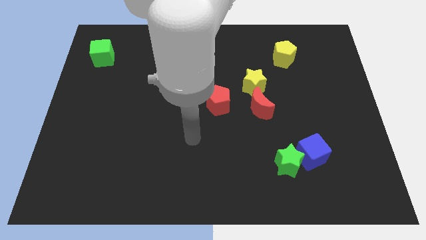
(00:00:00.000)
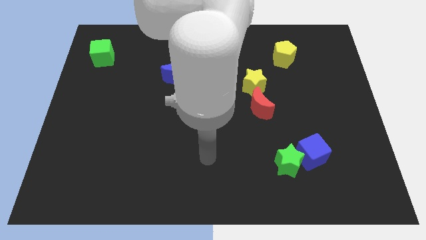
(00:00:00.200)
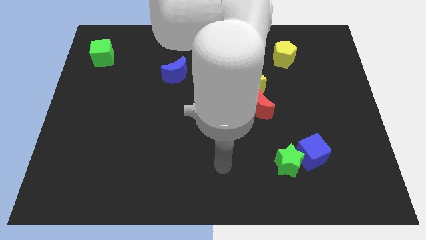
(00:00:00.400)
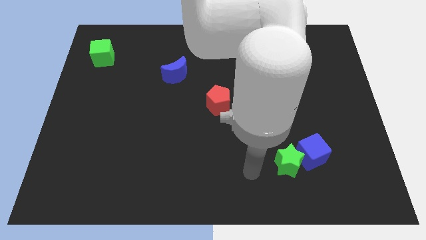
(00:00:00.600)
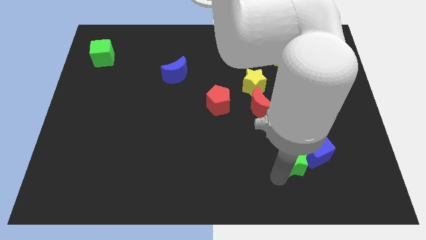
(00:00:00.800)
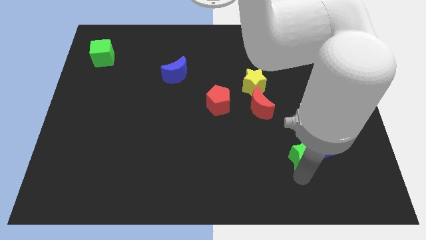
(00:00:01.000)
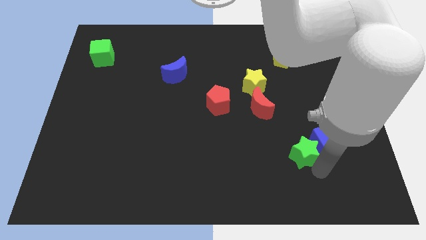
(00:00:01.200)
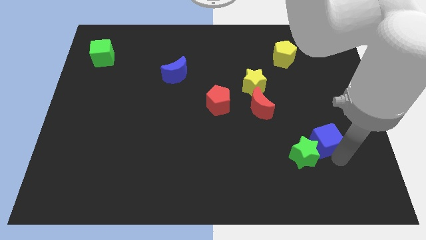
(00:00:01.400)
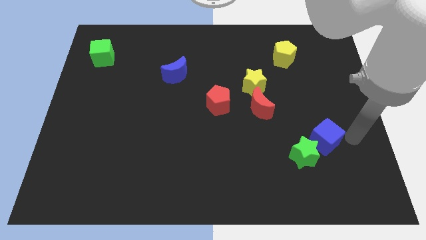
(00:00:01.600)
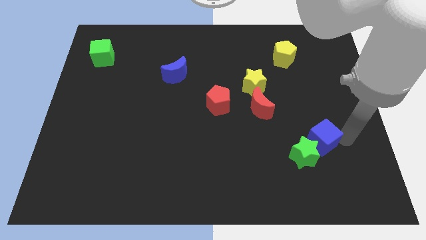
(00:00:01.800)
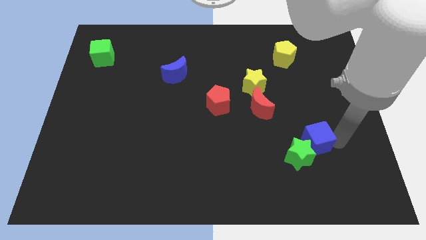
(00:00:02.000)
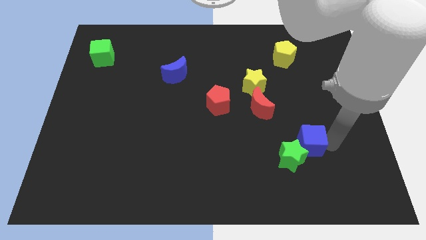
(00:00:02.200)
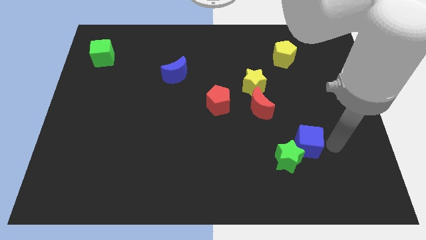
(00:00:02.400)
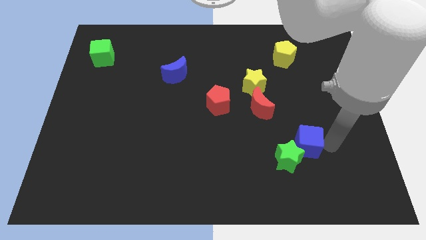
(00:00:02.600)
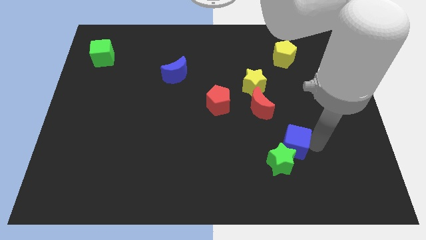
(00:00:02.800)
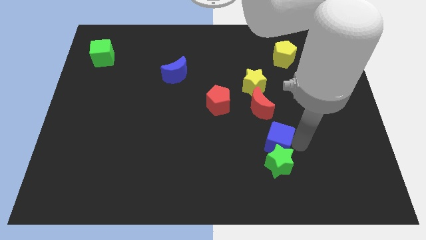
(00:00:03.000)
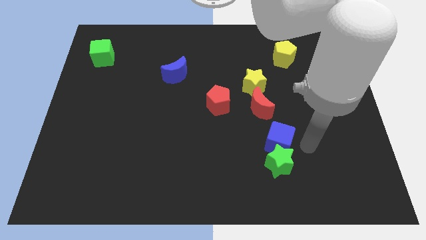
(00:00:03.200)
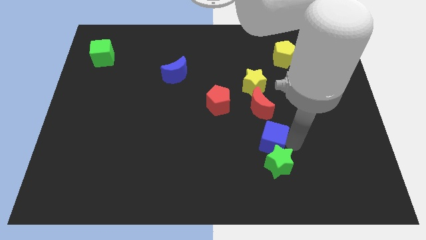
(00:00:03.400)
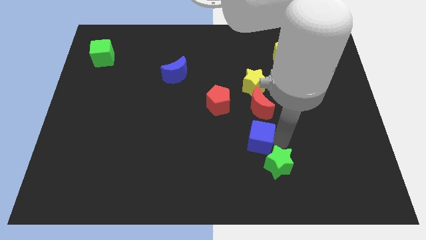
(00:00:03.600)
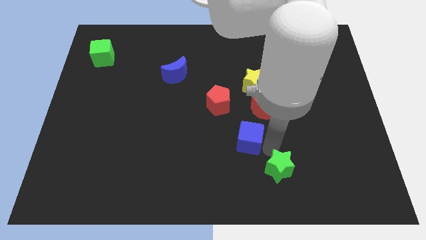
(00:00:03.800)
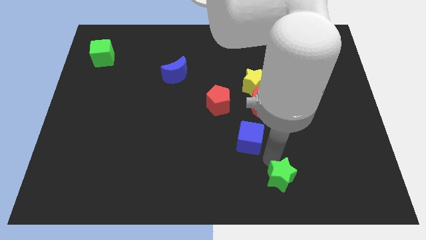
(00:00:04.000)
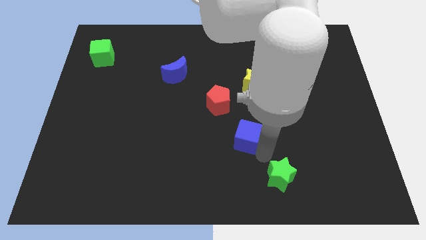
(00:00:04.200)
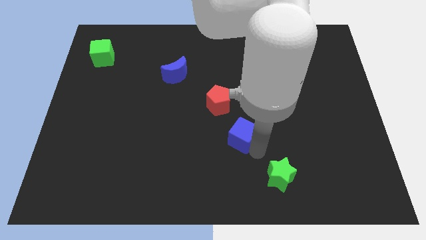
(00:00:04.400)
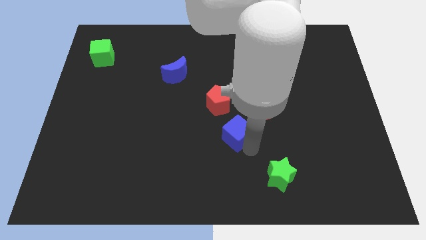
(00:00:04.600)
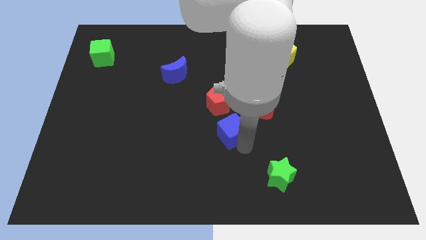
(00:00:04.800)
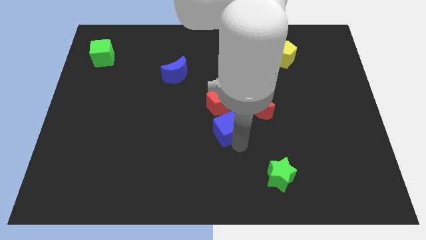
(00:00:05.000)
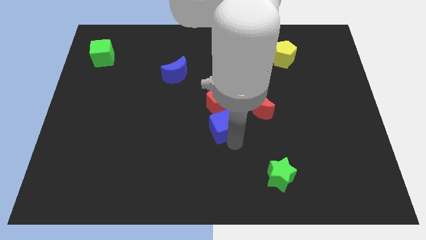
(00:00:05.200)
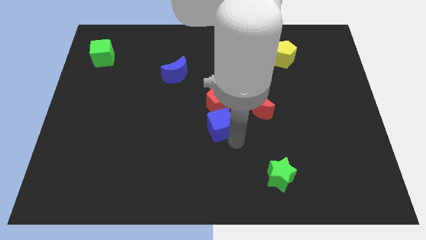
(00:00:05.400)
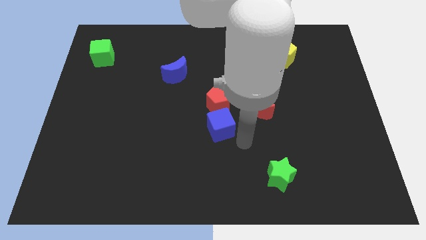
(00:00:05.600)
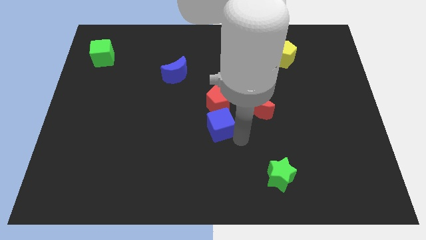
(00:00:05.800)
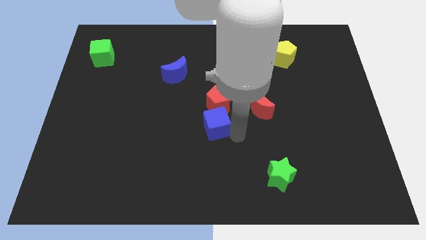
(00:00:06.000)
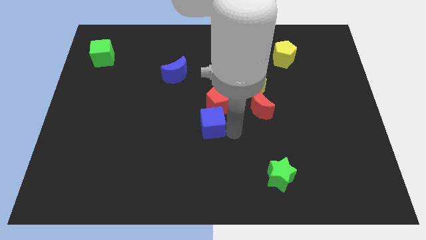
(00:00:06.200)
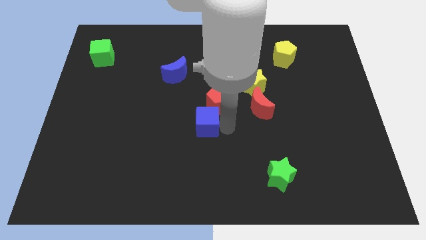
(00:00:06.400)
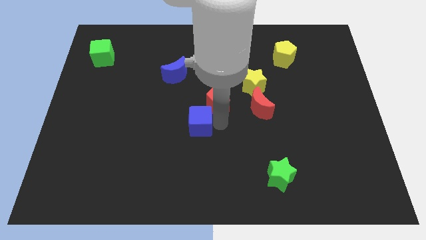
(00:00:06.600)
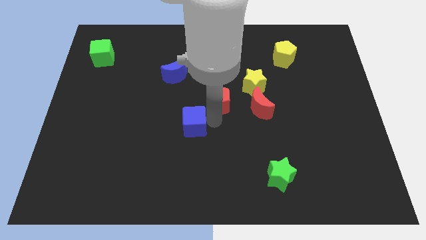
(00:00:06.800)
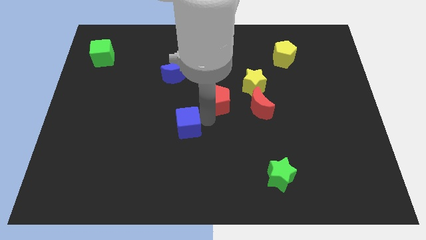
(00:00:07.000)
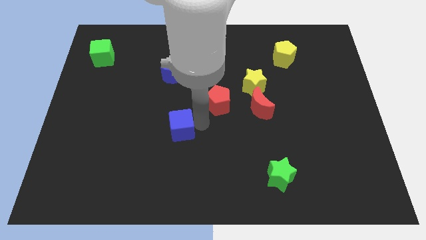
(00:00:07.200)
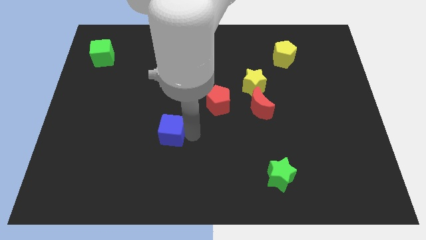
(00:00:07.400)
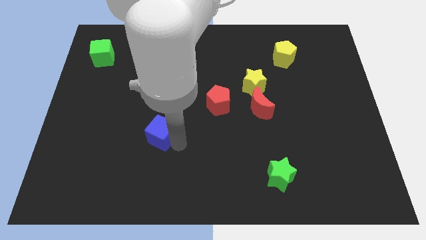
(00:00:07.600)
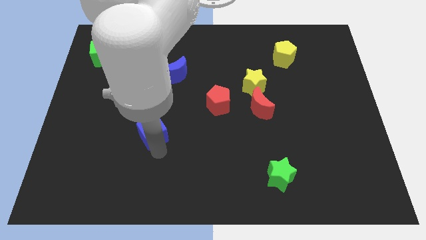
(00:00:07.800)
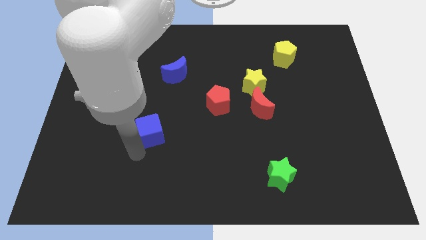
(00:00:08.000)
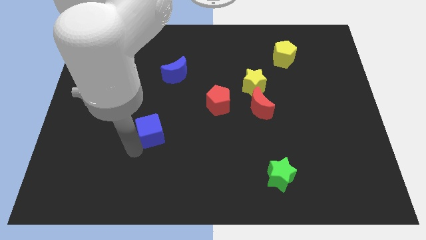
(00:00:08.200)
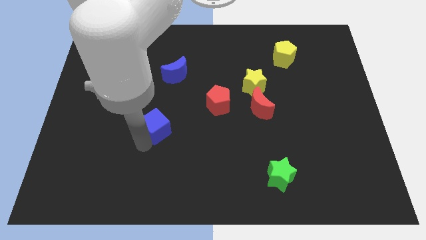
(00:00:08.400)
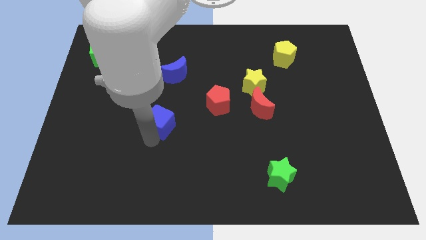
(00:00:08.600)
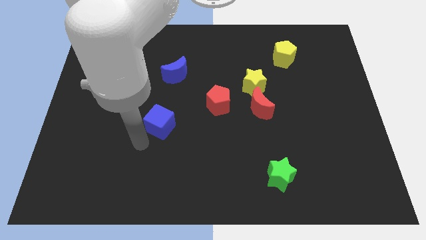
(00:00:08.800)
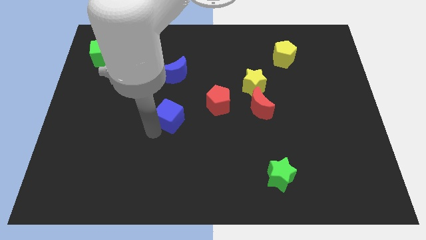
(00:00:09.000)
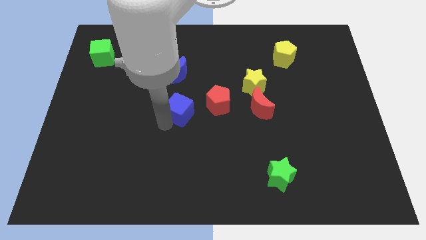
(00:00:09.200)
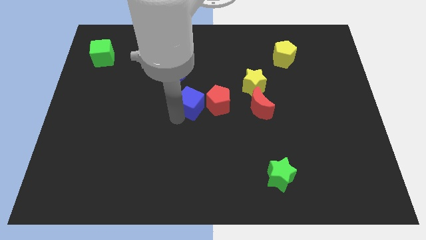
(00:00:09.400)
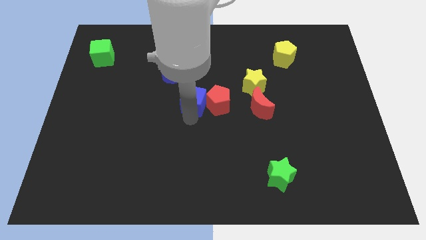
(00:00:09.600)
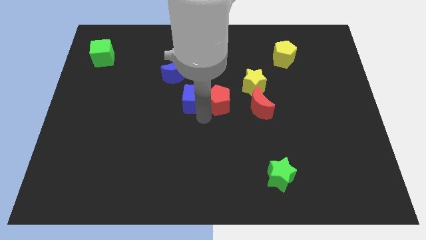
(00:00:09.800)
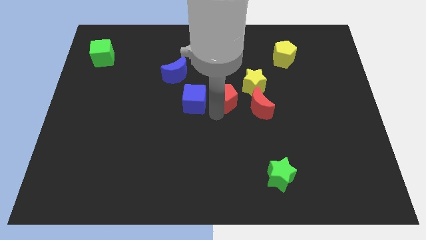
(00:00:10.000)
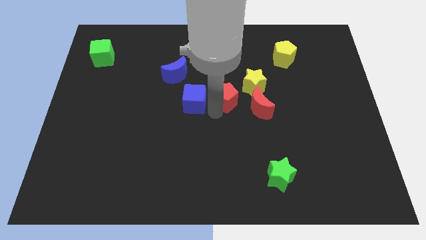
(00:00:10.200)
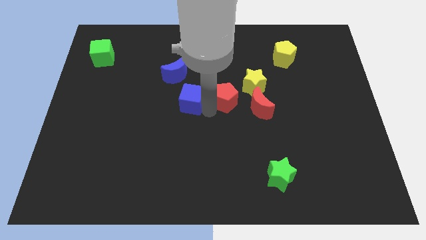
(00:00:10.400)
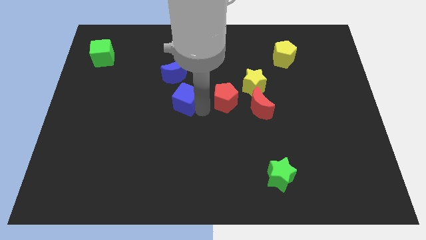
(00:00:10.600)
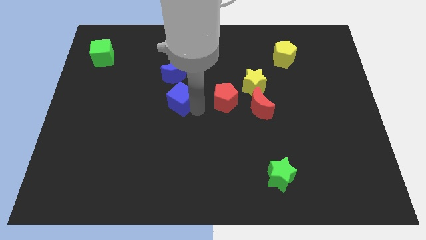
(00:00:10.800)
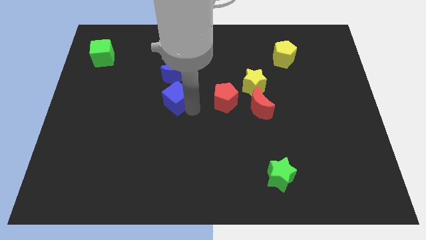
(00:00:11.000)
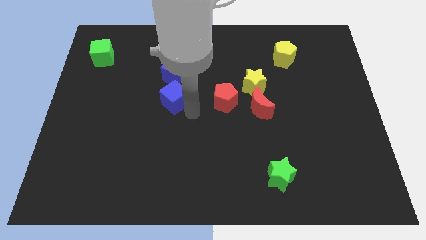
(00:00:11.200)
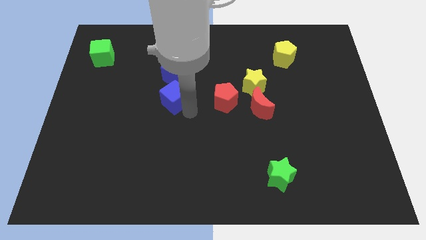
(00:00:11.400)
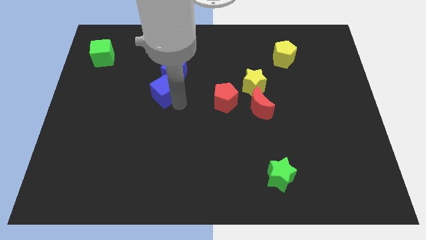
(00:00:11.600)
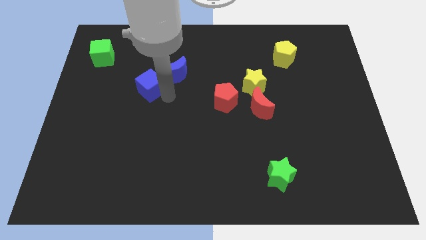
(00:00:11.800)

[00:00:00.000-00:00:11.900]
slide the blue cube to the left of the blue moon
